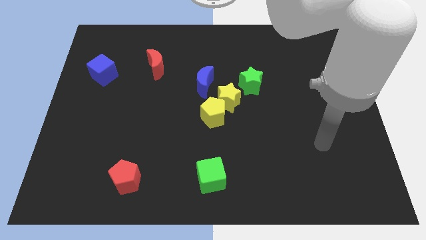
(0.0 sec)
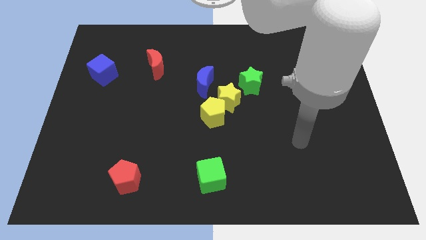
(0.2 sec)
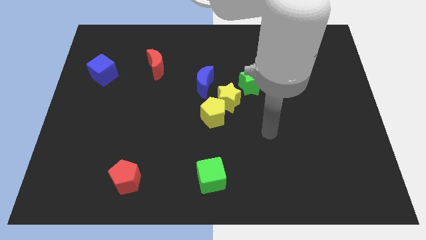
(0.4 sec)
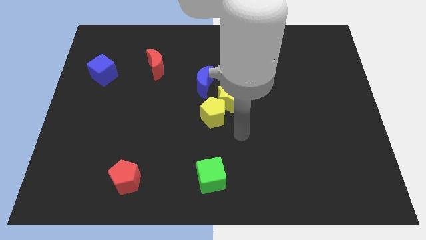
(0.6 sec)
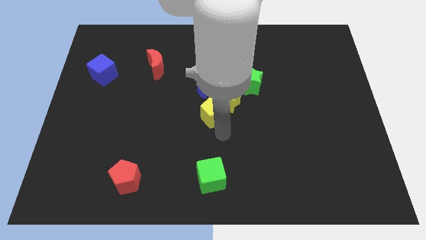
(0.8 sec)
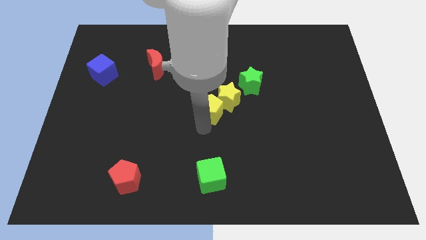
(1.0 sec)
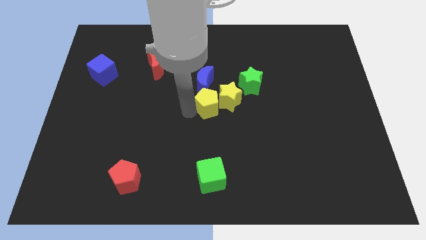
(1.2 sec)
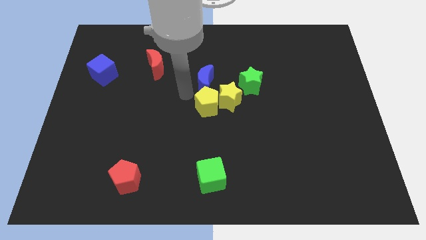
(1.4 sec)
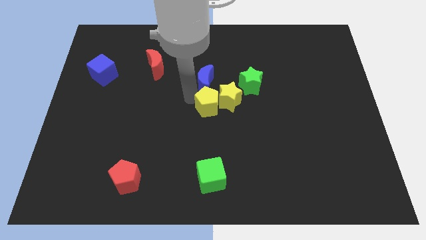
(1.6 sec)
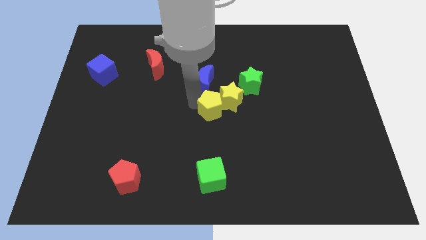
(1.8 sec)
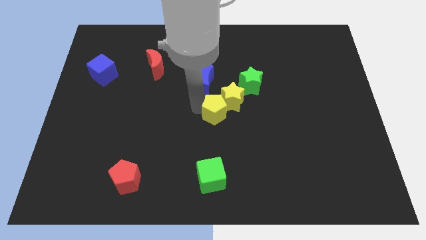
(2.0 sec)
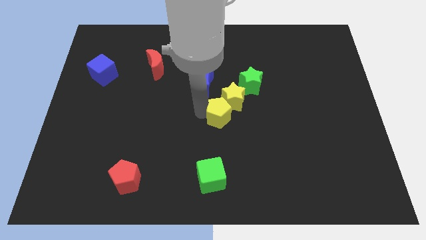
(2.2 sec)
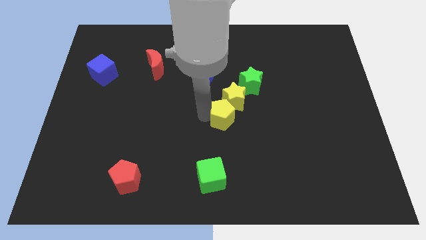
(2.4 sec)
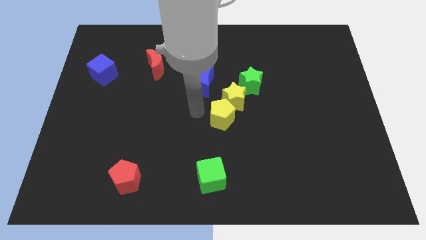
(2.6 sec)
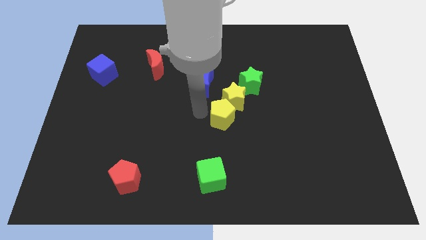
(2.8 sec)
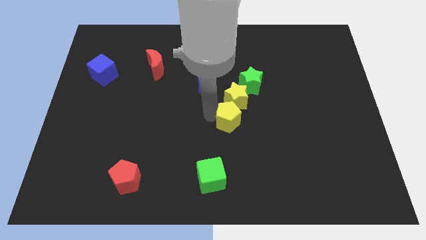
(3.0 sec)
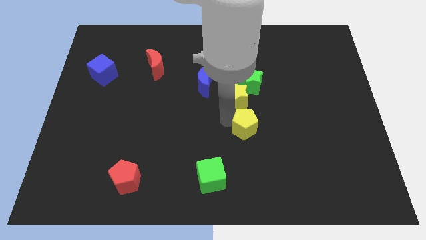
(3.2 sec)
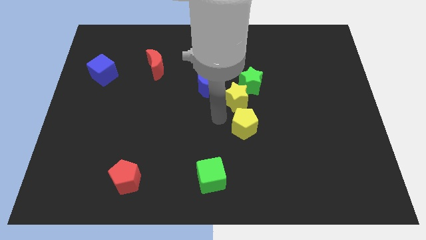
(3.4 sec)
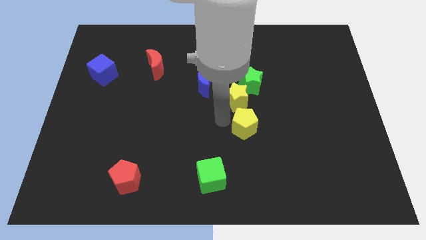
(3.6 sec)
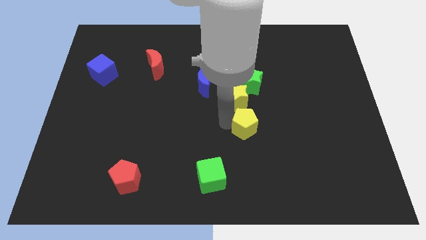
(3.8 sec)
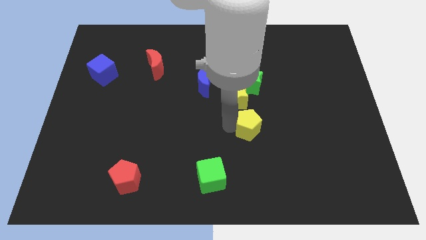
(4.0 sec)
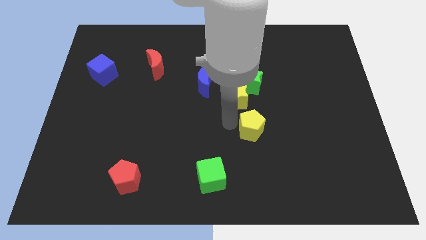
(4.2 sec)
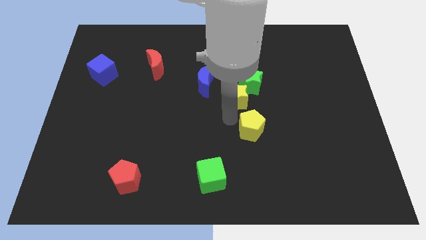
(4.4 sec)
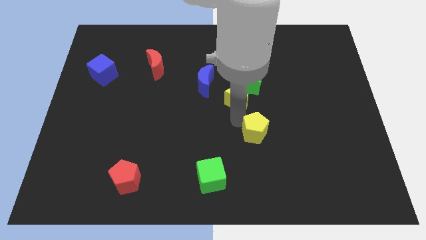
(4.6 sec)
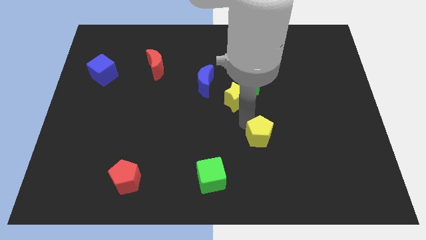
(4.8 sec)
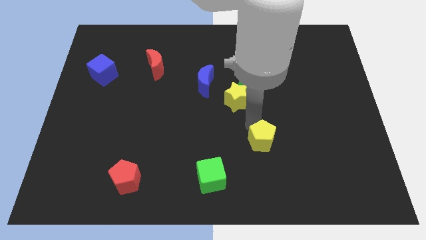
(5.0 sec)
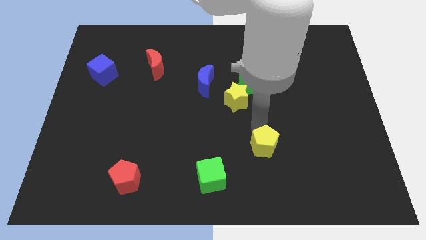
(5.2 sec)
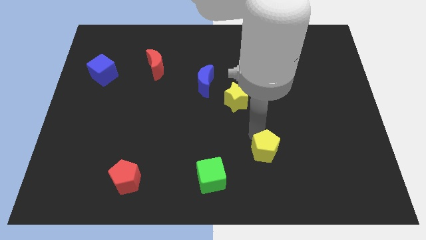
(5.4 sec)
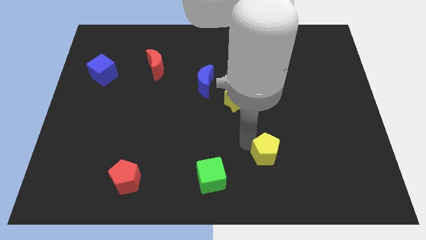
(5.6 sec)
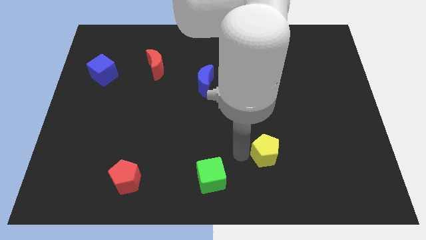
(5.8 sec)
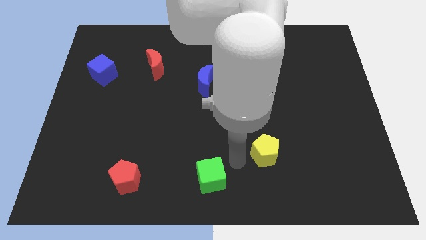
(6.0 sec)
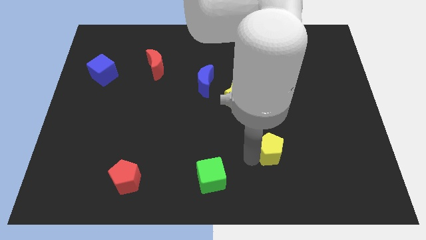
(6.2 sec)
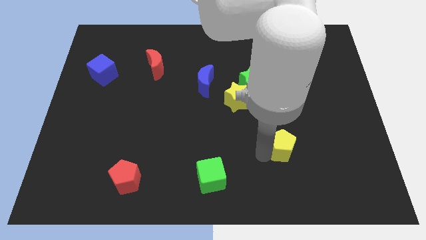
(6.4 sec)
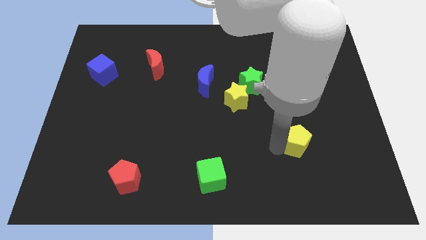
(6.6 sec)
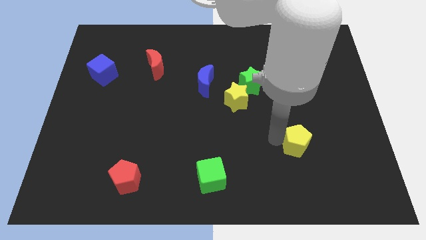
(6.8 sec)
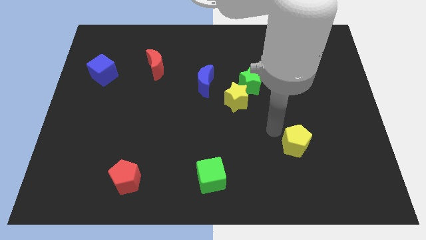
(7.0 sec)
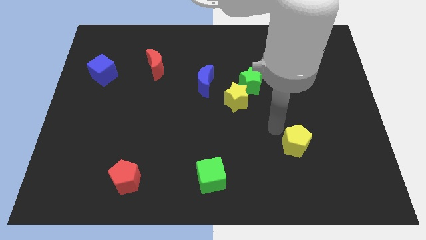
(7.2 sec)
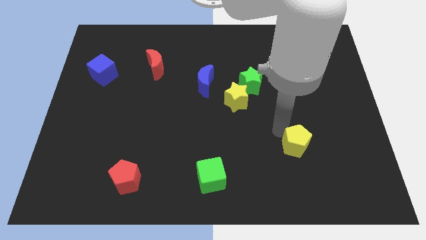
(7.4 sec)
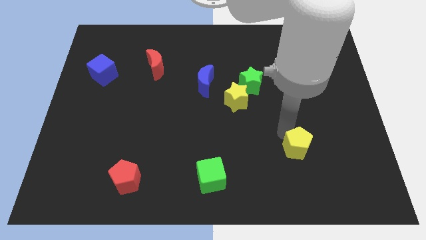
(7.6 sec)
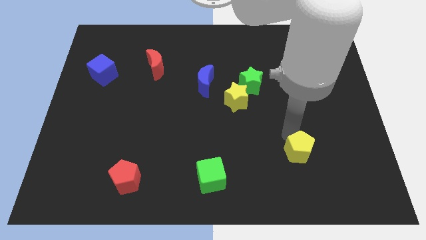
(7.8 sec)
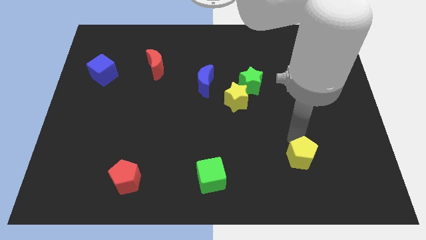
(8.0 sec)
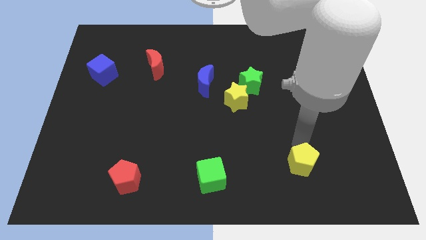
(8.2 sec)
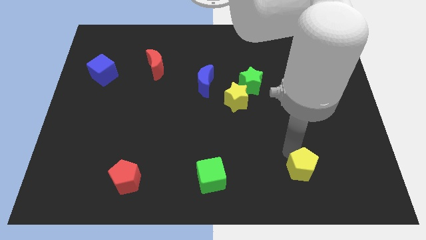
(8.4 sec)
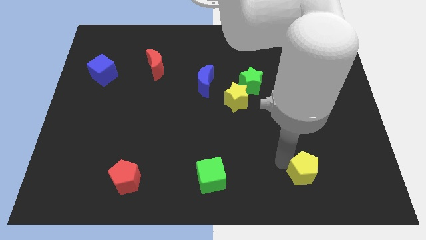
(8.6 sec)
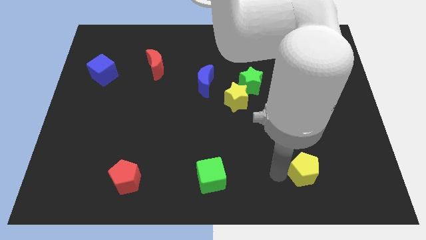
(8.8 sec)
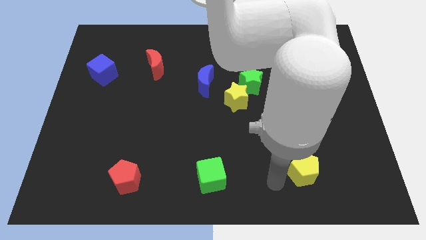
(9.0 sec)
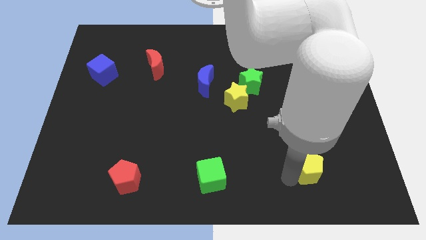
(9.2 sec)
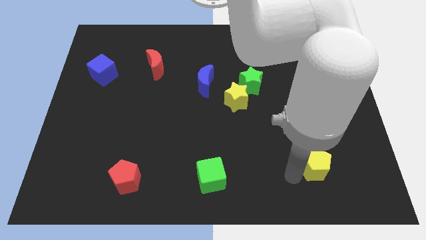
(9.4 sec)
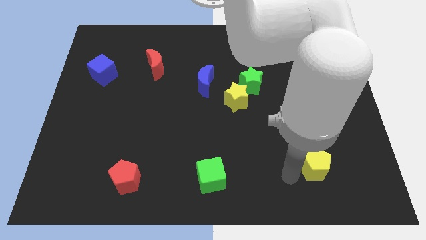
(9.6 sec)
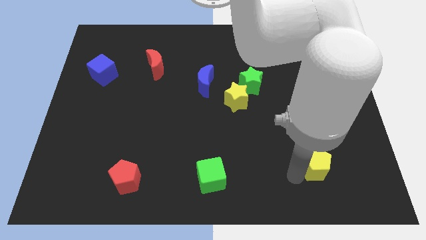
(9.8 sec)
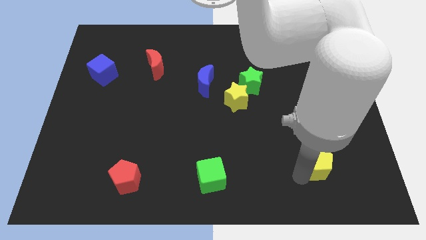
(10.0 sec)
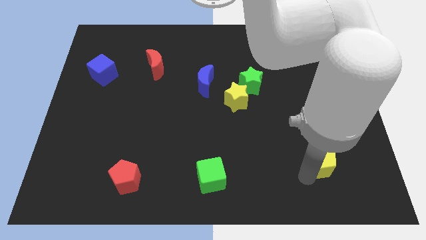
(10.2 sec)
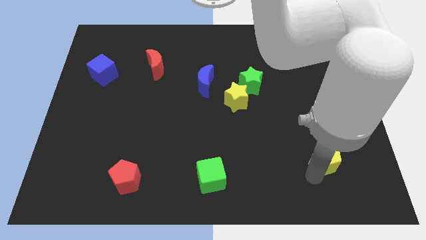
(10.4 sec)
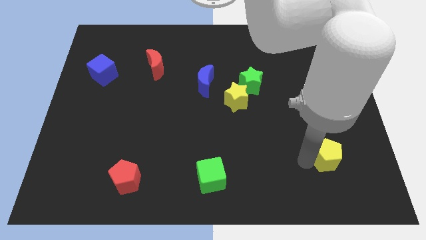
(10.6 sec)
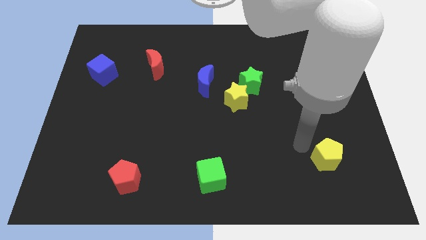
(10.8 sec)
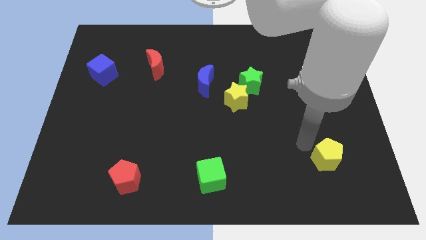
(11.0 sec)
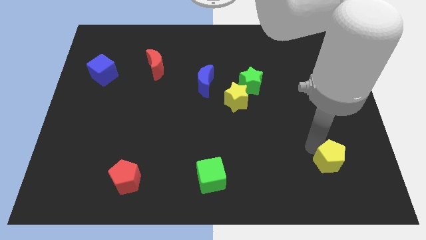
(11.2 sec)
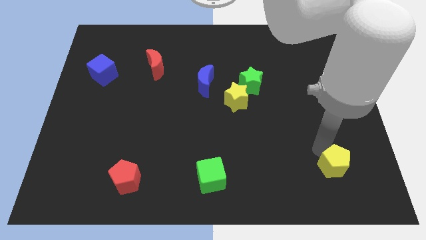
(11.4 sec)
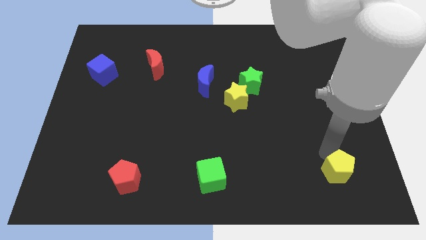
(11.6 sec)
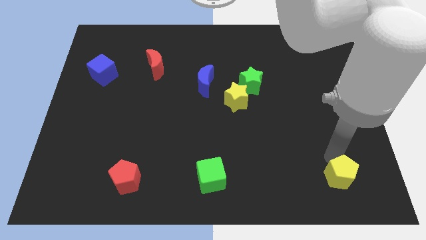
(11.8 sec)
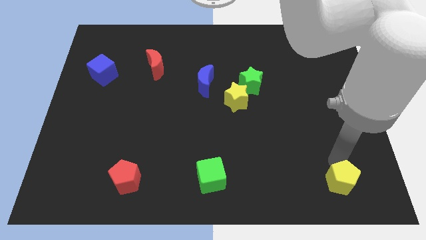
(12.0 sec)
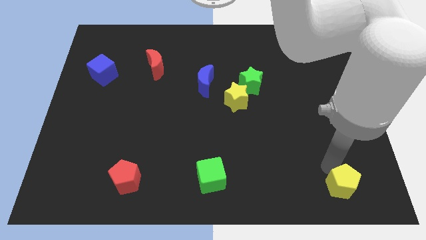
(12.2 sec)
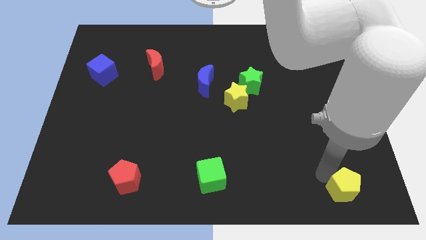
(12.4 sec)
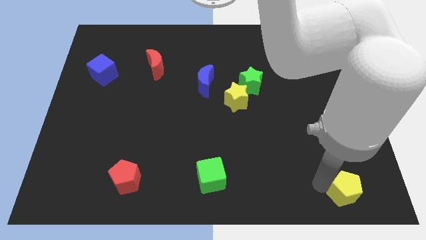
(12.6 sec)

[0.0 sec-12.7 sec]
slide the yellow pentagon to the bottom right of the board

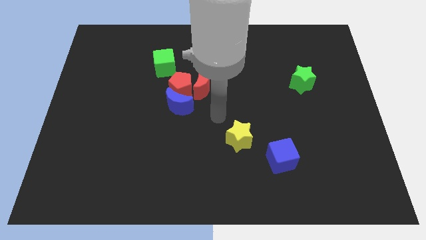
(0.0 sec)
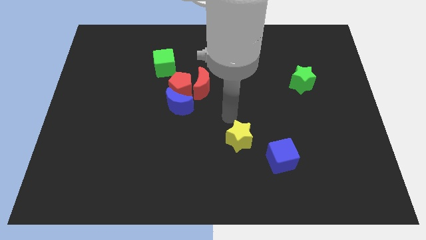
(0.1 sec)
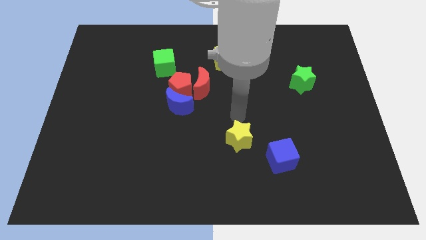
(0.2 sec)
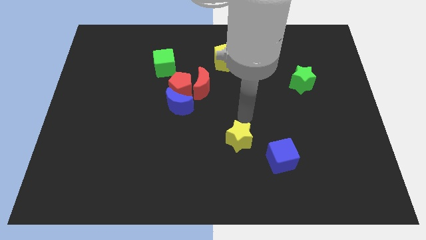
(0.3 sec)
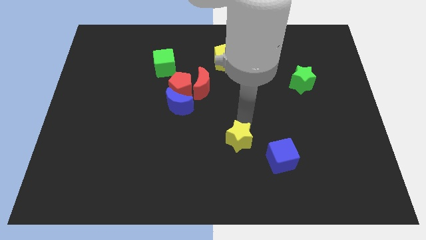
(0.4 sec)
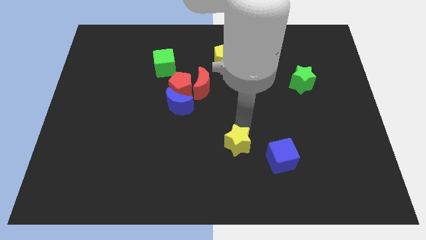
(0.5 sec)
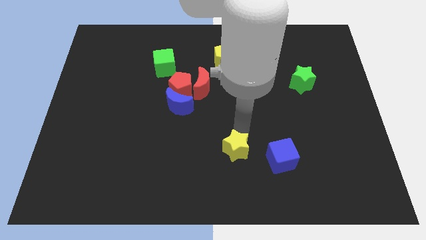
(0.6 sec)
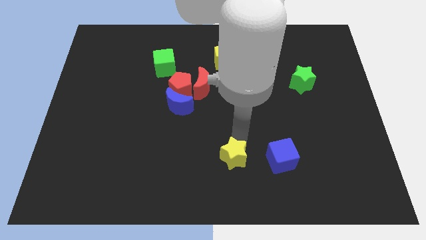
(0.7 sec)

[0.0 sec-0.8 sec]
put the yellow star to the bottom side
